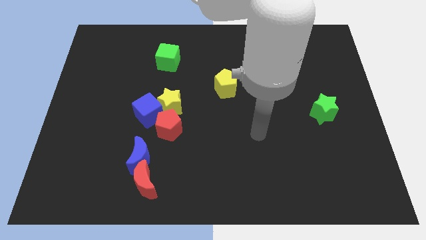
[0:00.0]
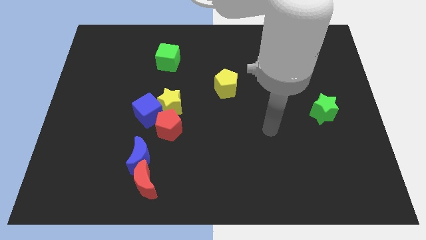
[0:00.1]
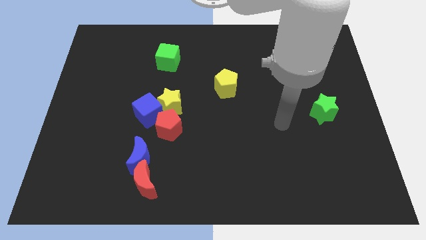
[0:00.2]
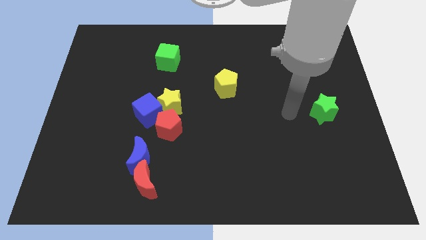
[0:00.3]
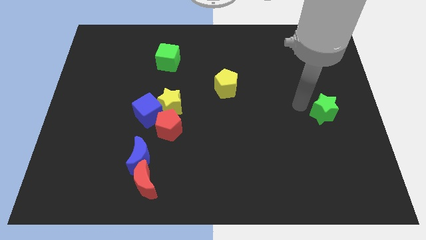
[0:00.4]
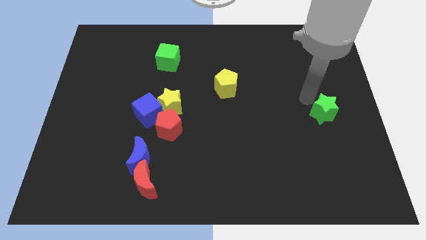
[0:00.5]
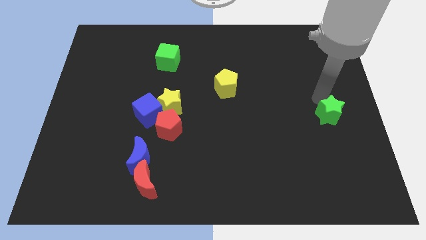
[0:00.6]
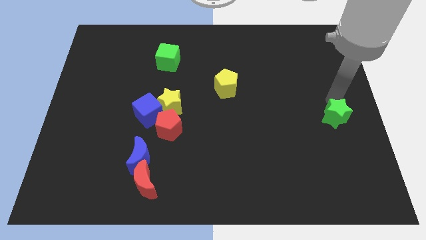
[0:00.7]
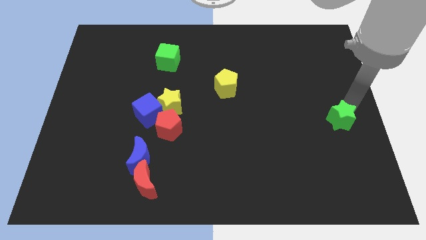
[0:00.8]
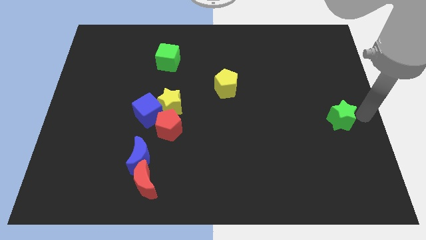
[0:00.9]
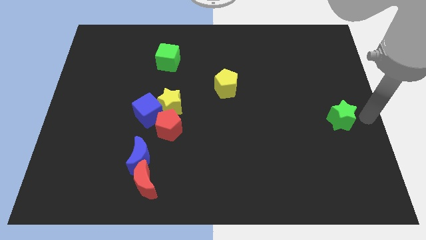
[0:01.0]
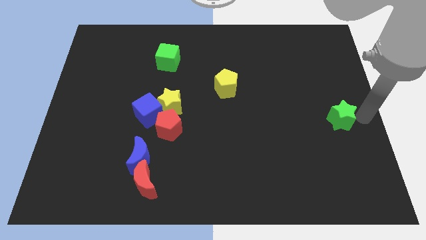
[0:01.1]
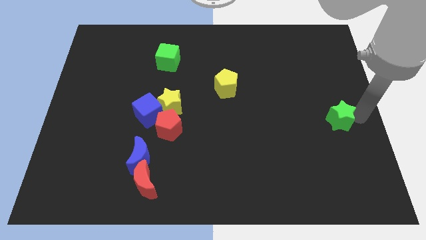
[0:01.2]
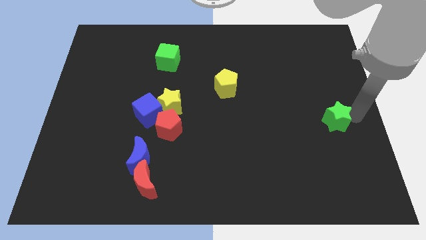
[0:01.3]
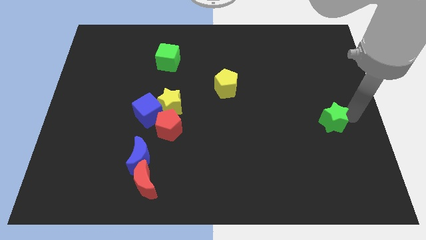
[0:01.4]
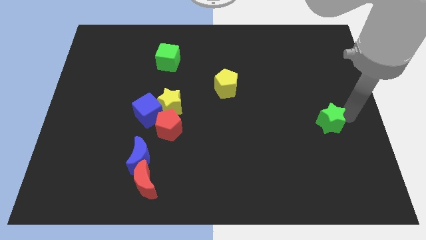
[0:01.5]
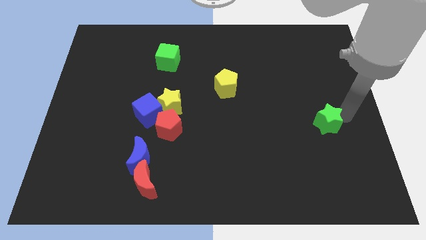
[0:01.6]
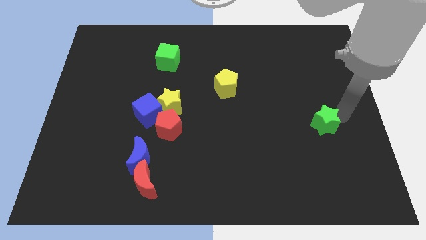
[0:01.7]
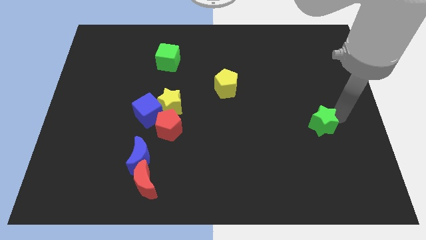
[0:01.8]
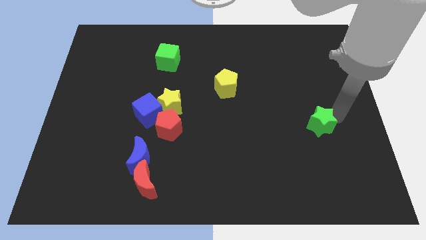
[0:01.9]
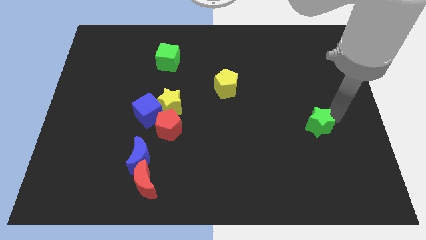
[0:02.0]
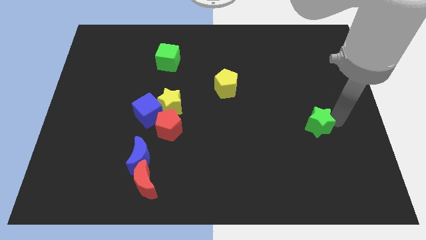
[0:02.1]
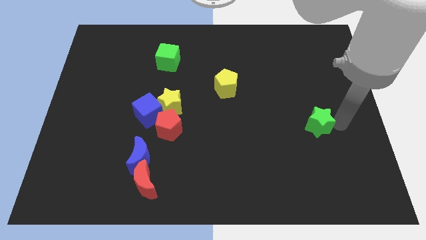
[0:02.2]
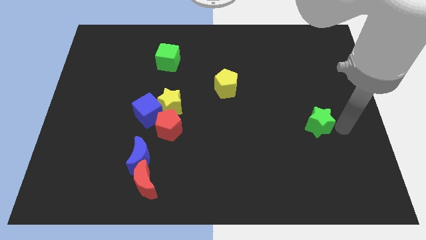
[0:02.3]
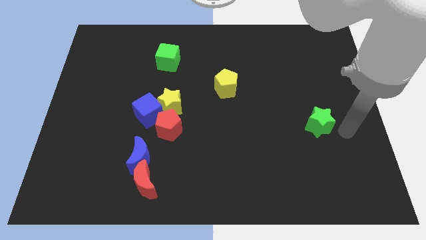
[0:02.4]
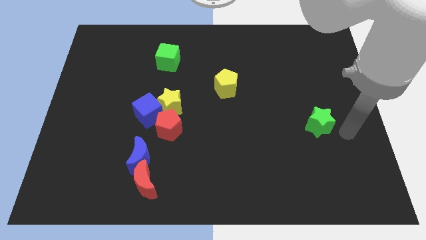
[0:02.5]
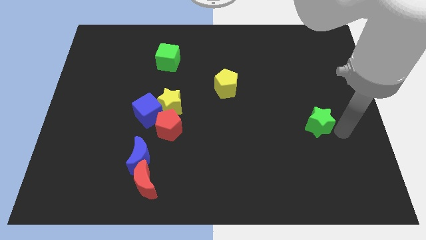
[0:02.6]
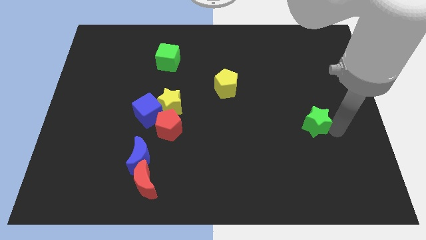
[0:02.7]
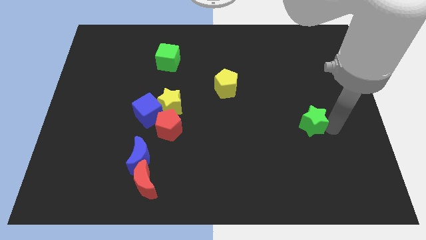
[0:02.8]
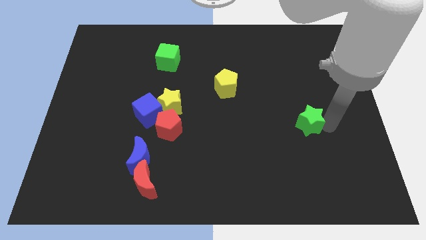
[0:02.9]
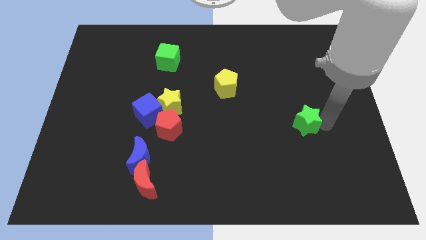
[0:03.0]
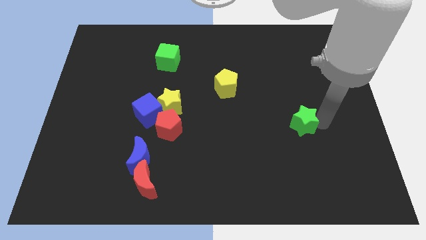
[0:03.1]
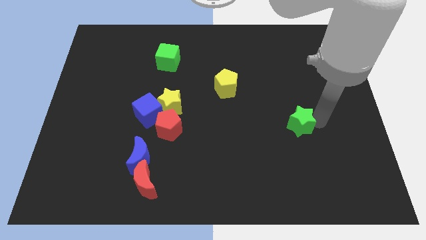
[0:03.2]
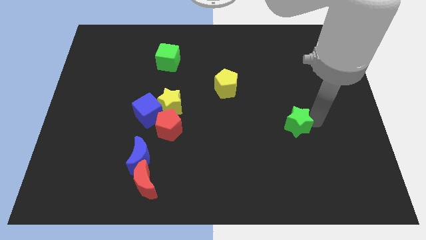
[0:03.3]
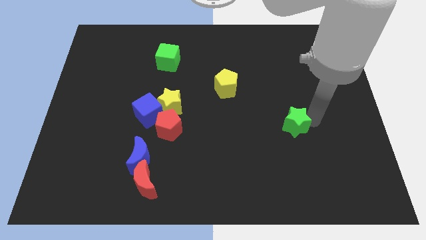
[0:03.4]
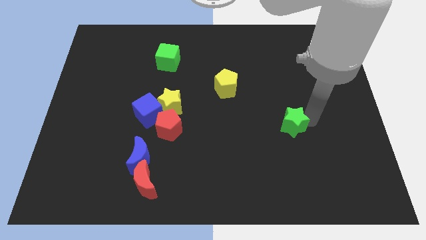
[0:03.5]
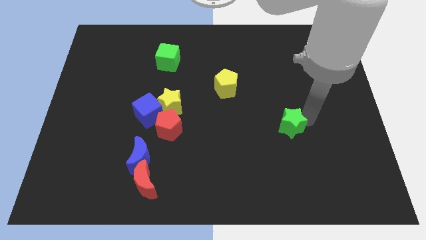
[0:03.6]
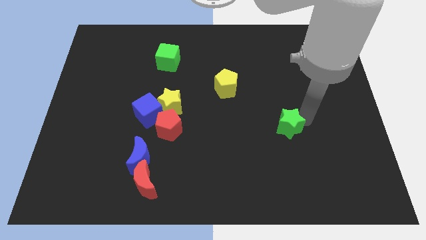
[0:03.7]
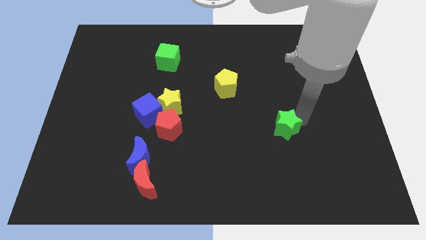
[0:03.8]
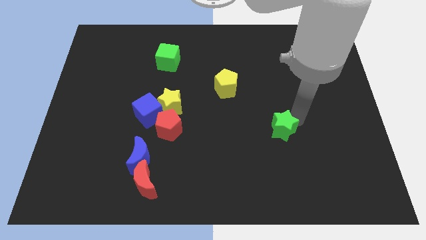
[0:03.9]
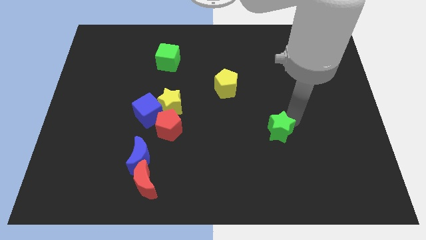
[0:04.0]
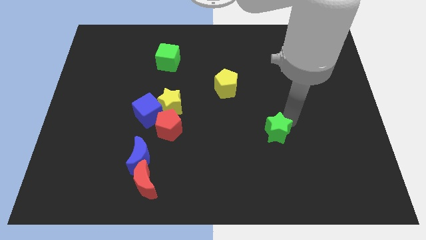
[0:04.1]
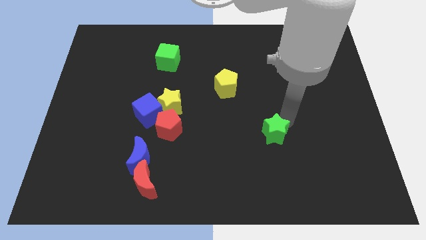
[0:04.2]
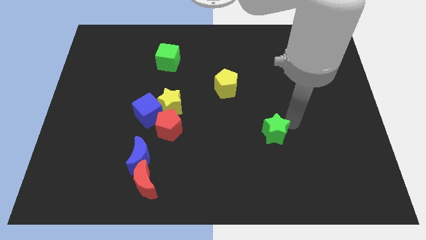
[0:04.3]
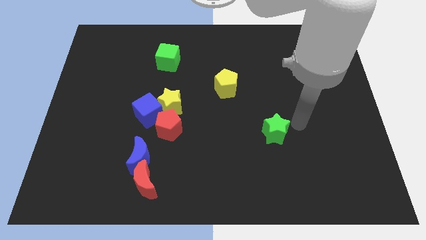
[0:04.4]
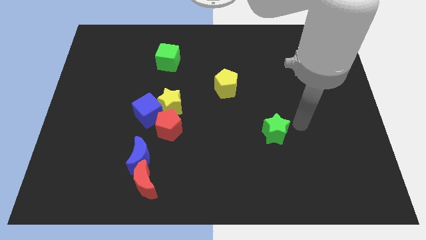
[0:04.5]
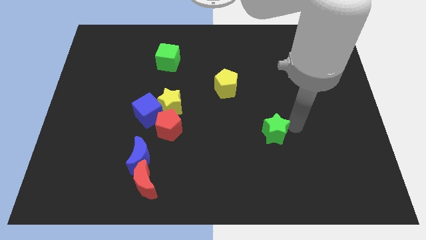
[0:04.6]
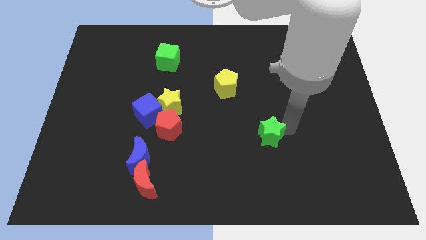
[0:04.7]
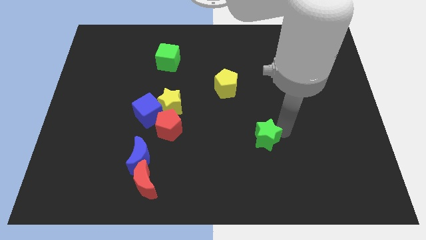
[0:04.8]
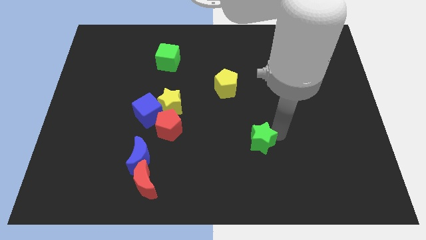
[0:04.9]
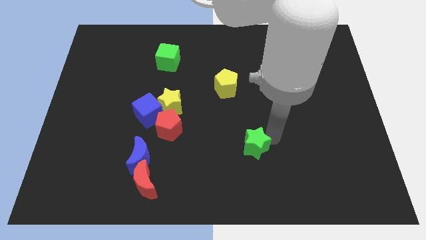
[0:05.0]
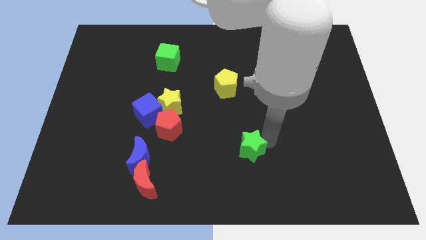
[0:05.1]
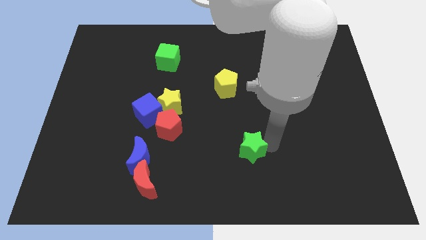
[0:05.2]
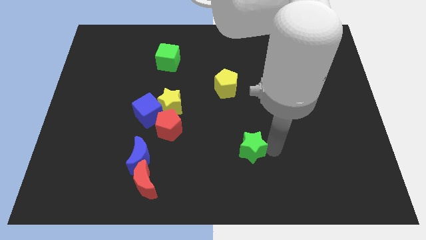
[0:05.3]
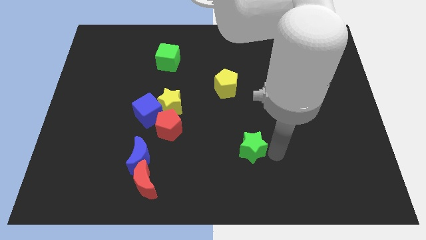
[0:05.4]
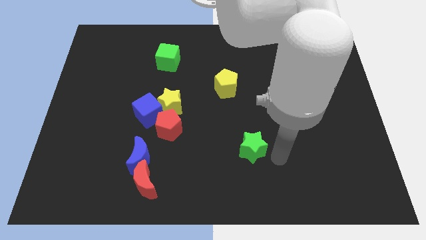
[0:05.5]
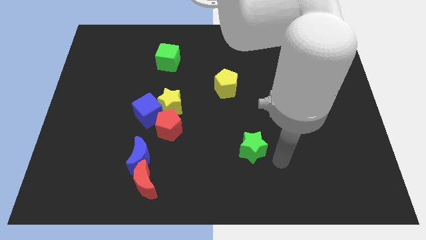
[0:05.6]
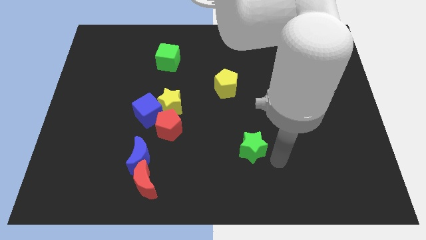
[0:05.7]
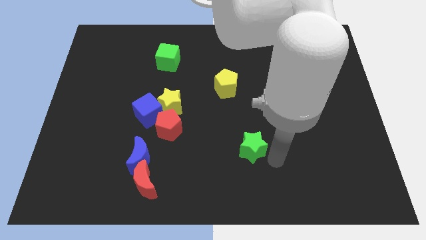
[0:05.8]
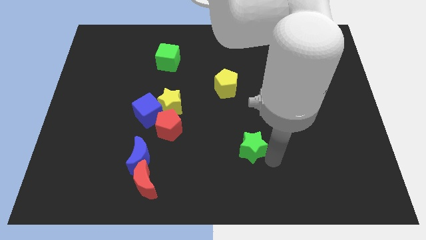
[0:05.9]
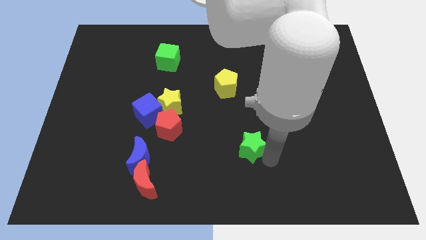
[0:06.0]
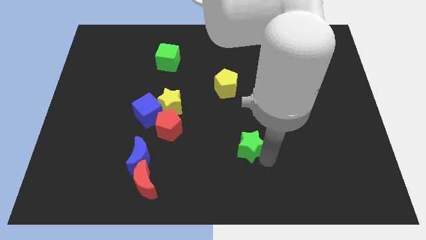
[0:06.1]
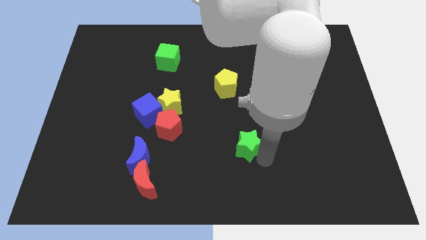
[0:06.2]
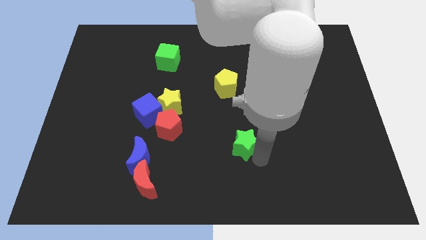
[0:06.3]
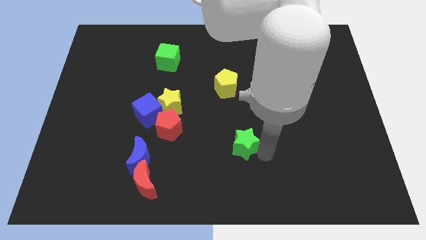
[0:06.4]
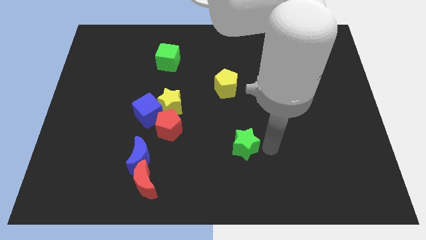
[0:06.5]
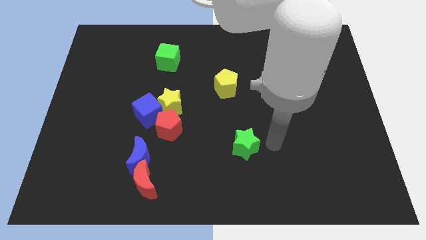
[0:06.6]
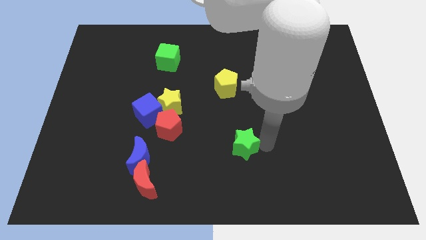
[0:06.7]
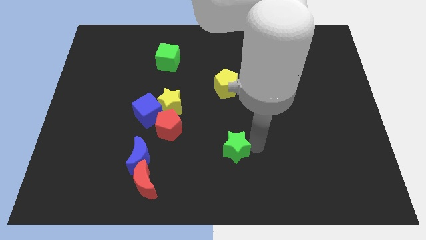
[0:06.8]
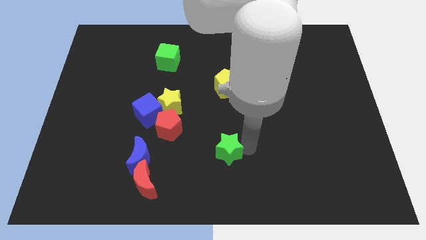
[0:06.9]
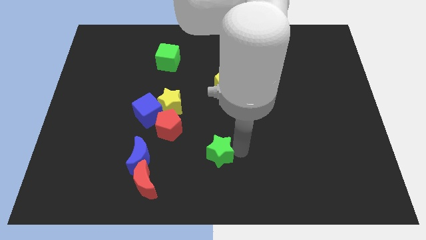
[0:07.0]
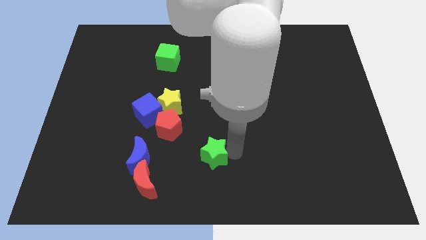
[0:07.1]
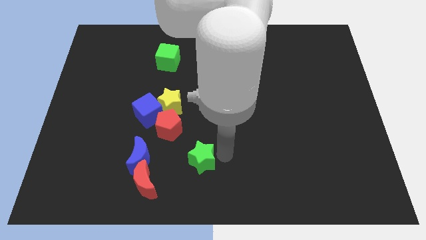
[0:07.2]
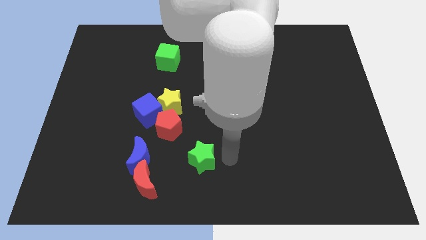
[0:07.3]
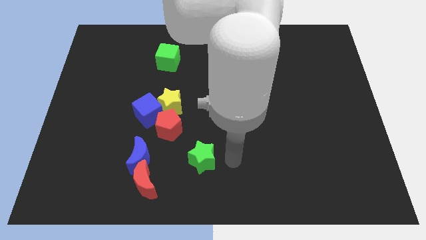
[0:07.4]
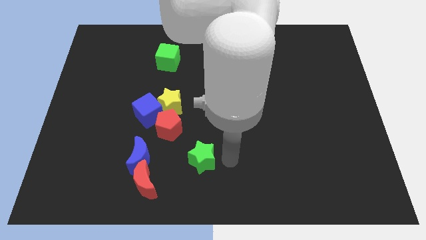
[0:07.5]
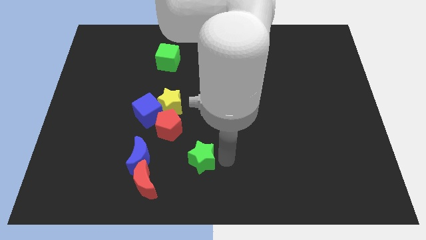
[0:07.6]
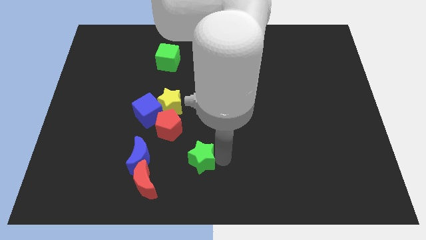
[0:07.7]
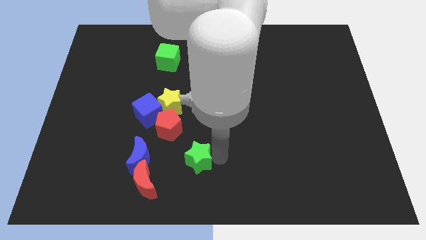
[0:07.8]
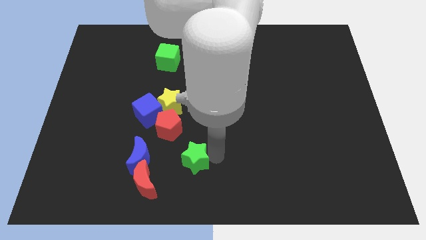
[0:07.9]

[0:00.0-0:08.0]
push the green star diagonally up and to the right of the red moon

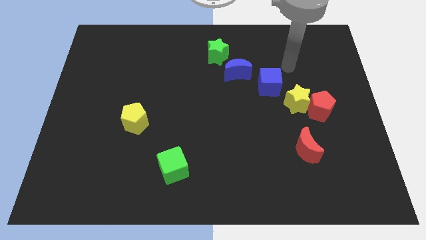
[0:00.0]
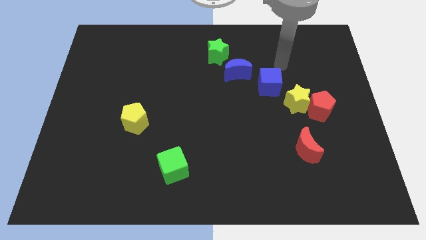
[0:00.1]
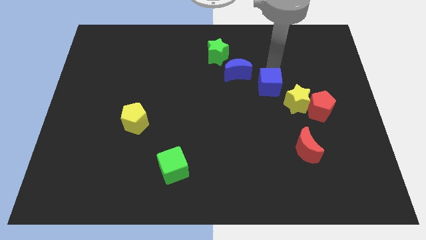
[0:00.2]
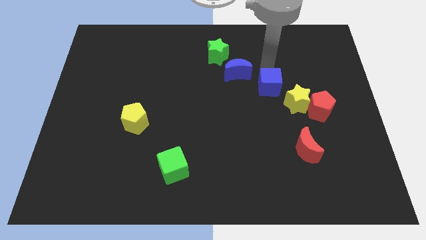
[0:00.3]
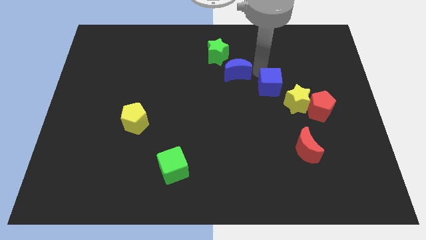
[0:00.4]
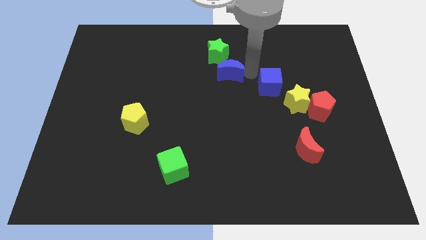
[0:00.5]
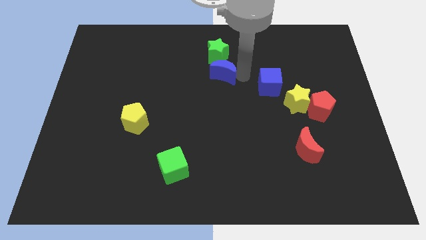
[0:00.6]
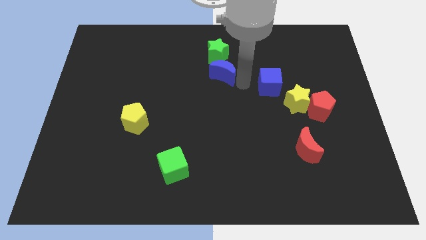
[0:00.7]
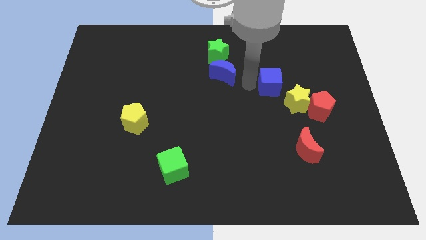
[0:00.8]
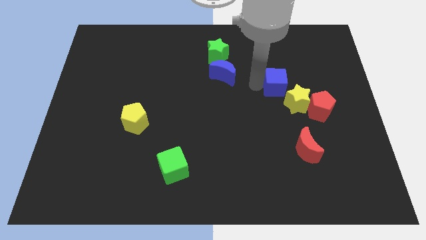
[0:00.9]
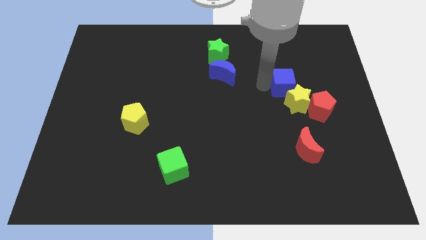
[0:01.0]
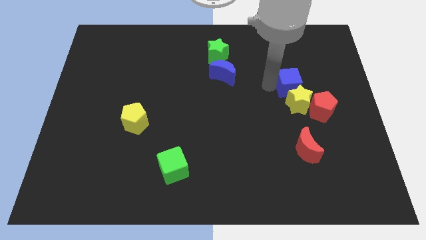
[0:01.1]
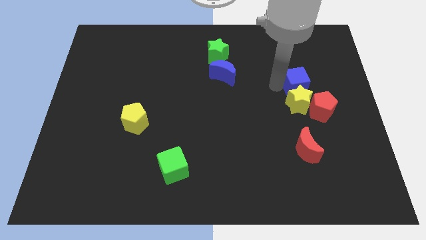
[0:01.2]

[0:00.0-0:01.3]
push the blue cube diagonally up and to the right of the yellow star
